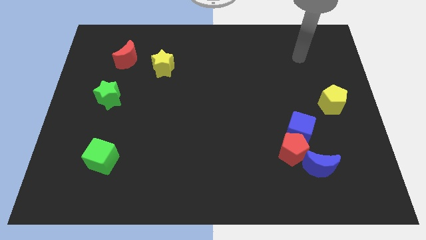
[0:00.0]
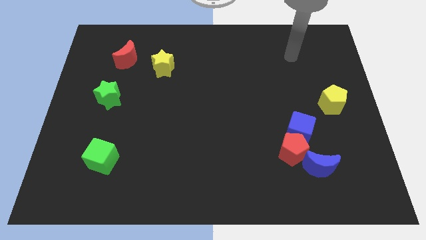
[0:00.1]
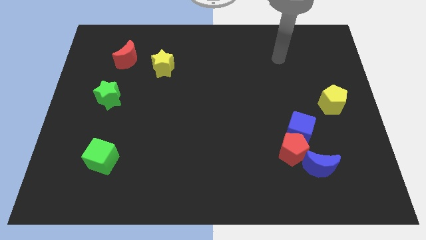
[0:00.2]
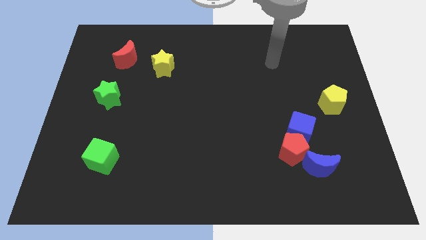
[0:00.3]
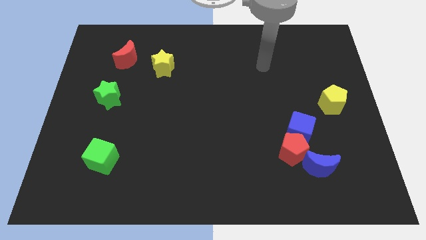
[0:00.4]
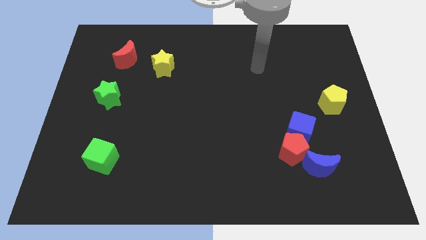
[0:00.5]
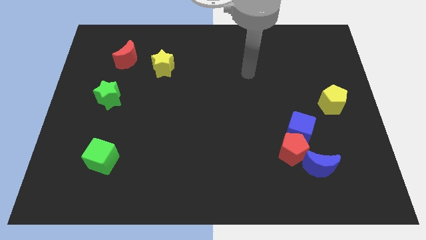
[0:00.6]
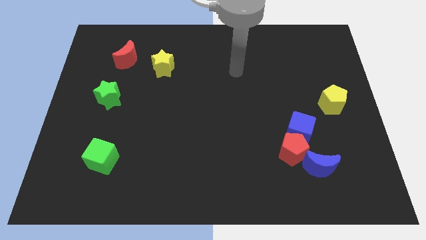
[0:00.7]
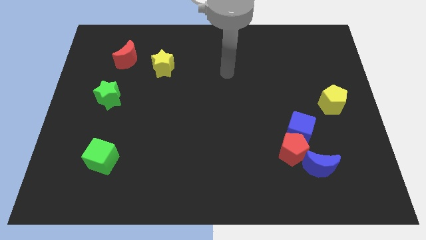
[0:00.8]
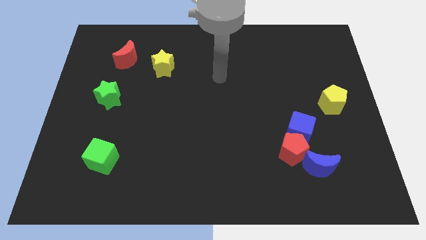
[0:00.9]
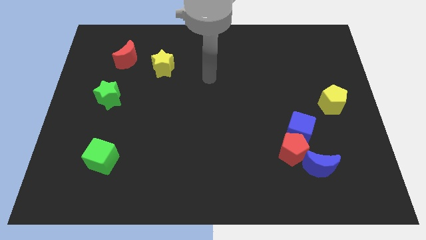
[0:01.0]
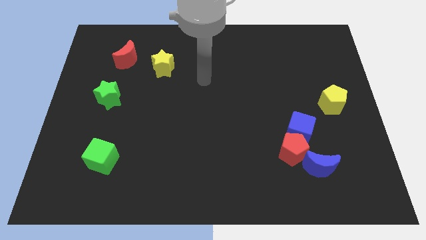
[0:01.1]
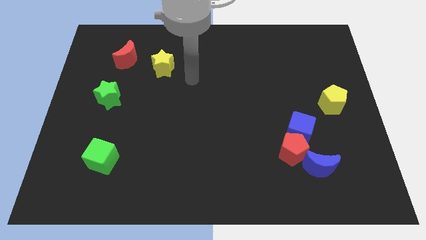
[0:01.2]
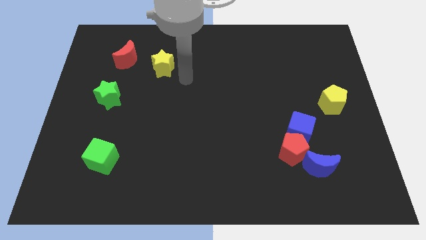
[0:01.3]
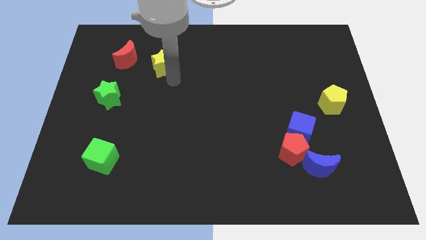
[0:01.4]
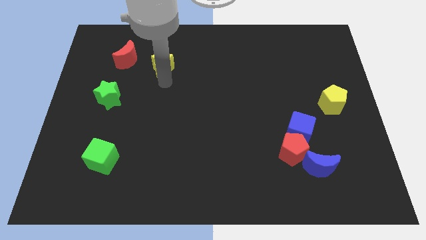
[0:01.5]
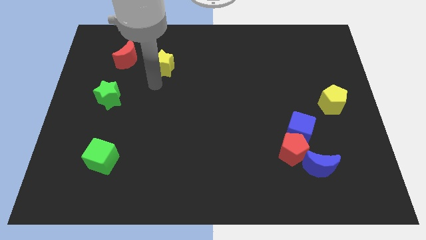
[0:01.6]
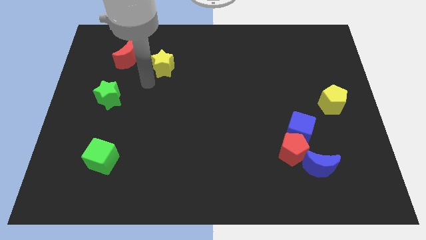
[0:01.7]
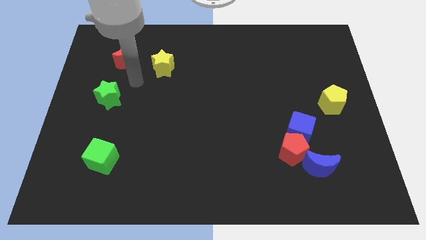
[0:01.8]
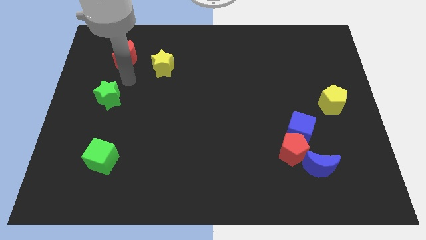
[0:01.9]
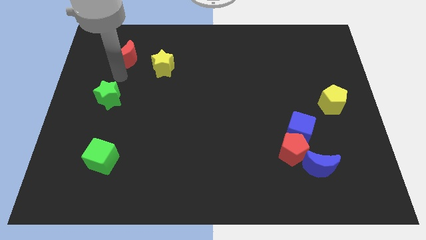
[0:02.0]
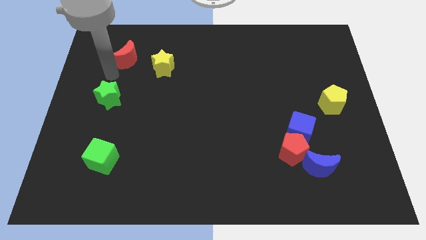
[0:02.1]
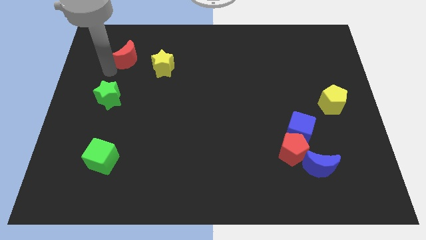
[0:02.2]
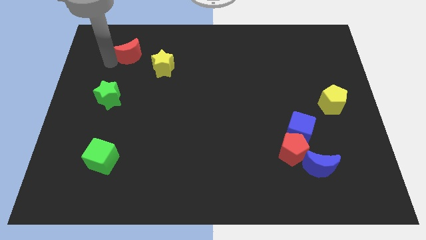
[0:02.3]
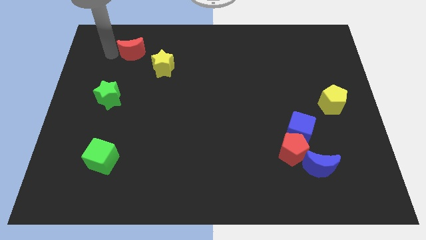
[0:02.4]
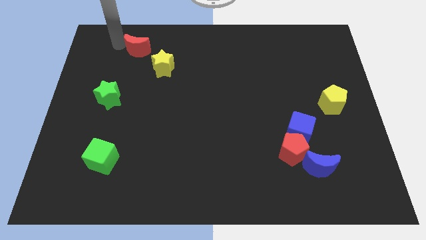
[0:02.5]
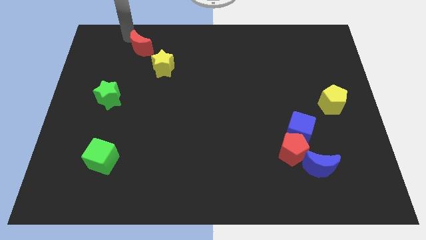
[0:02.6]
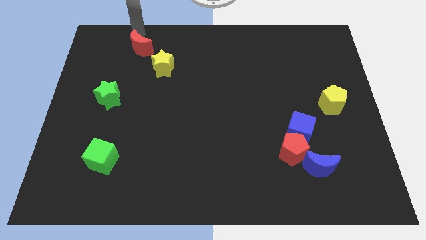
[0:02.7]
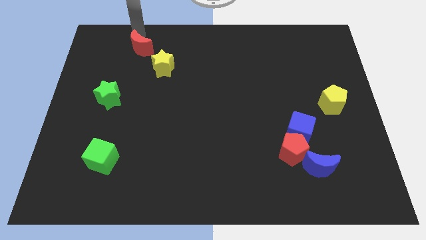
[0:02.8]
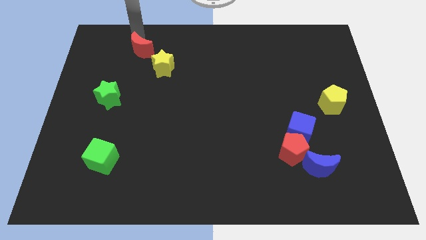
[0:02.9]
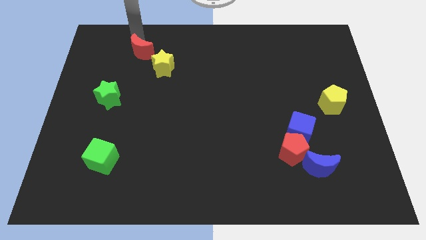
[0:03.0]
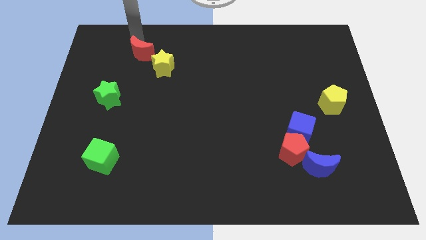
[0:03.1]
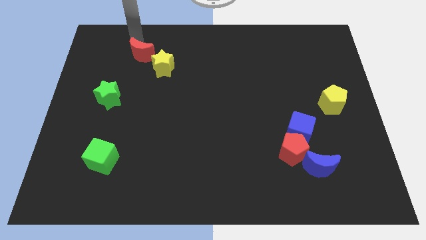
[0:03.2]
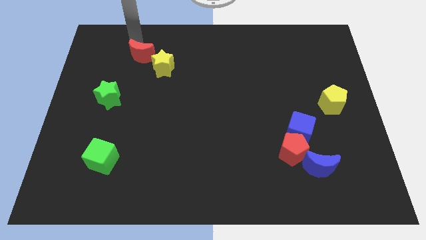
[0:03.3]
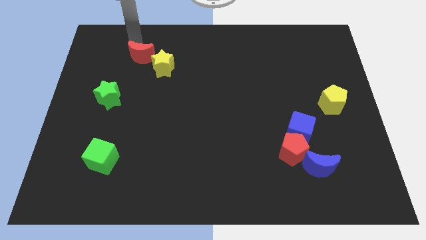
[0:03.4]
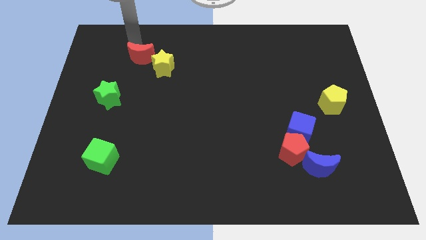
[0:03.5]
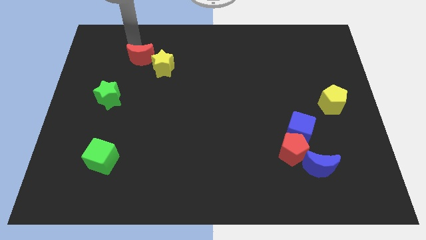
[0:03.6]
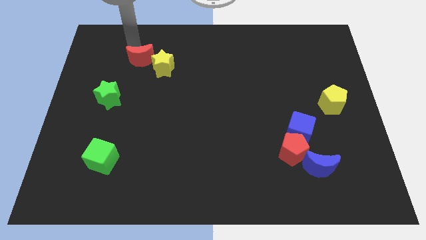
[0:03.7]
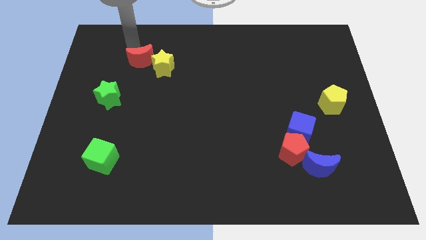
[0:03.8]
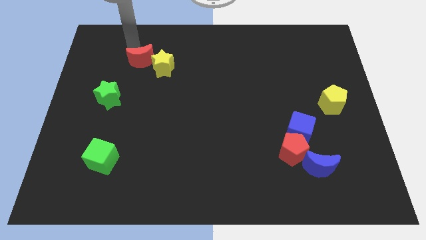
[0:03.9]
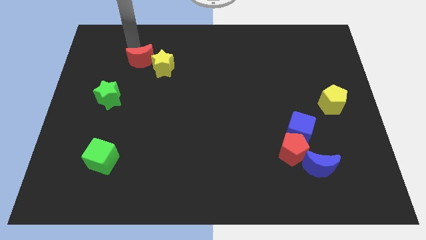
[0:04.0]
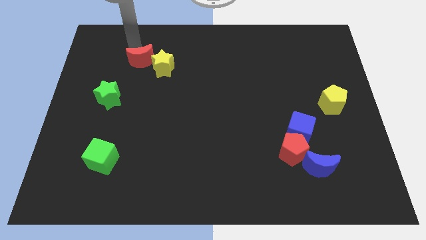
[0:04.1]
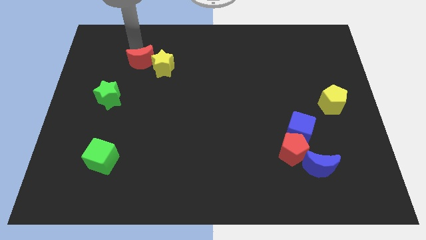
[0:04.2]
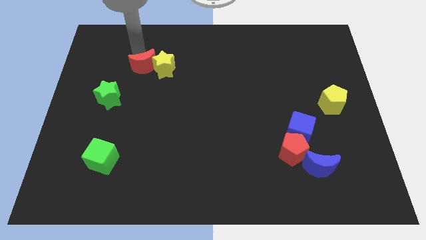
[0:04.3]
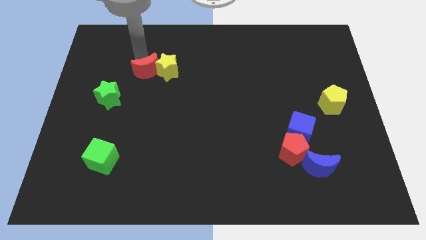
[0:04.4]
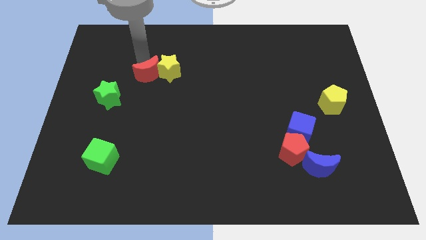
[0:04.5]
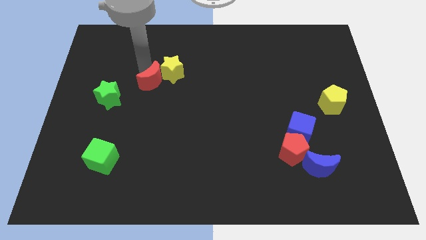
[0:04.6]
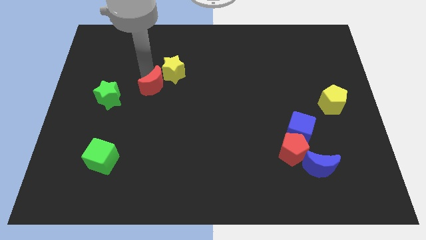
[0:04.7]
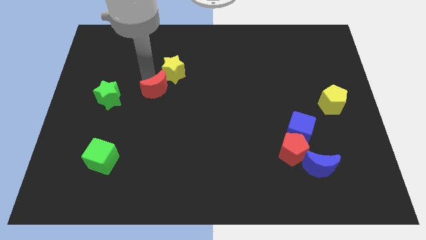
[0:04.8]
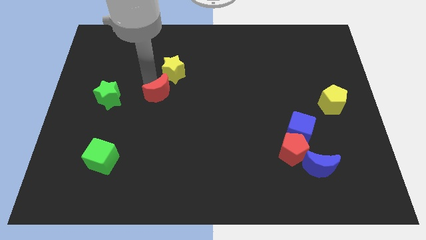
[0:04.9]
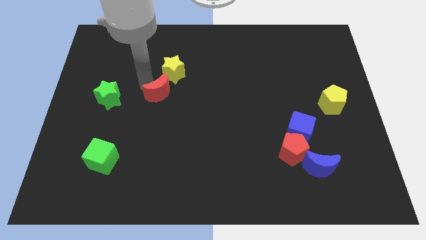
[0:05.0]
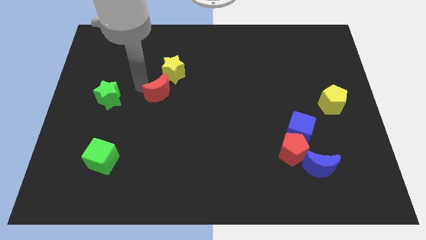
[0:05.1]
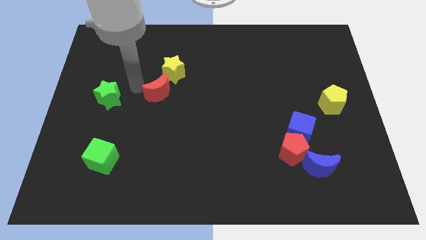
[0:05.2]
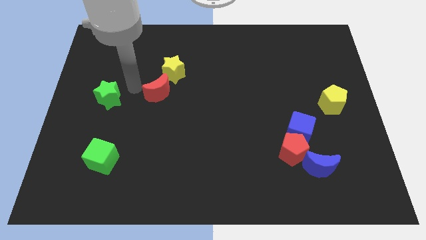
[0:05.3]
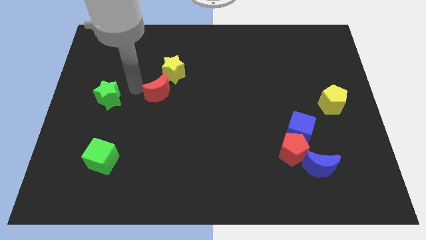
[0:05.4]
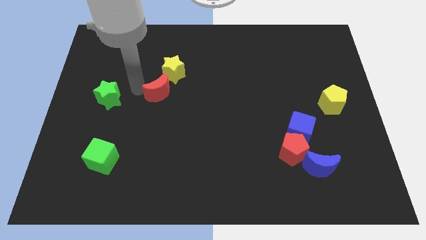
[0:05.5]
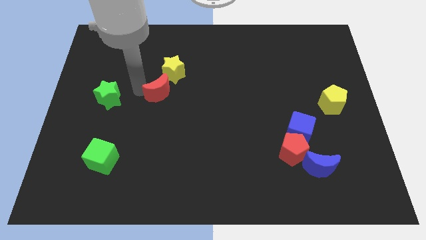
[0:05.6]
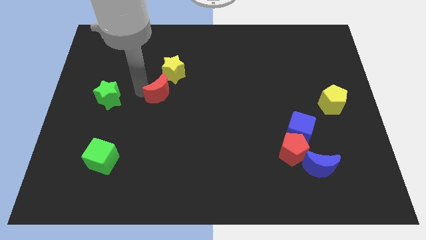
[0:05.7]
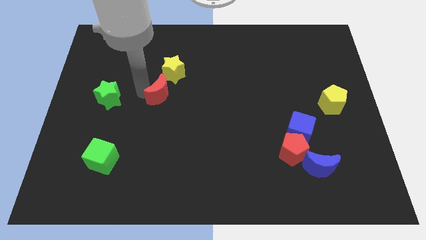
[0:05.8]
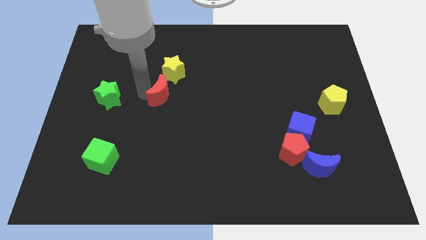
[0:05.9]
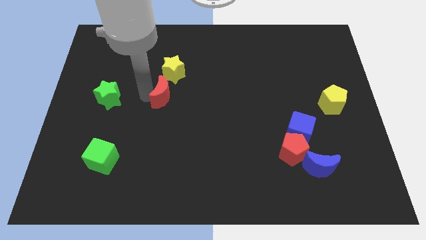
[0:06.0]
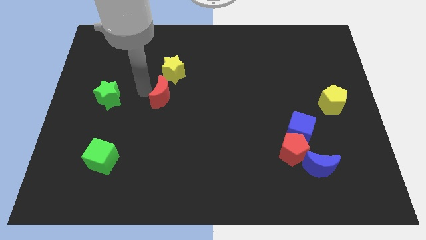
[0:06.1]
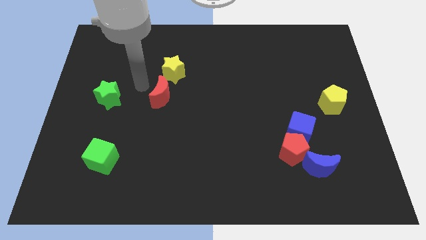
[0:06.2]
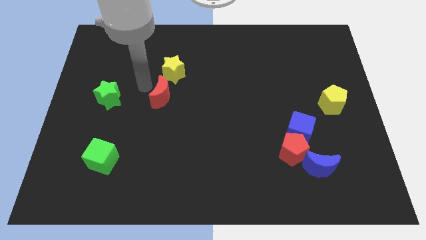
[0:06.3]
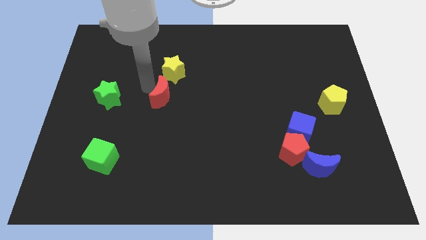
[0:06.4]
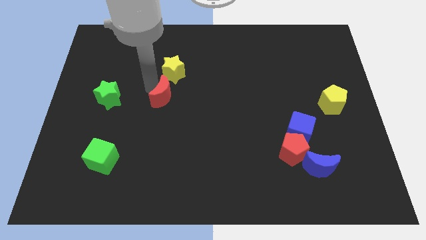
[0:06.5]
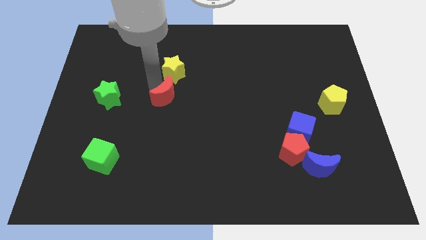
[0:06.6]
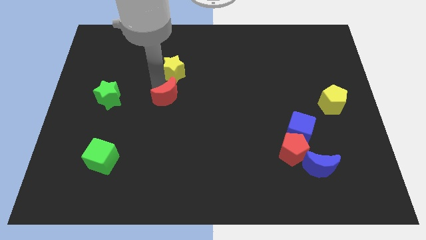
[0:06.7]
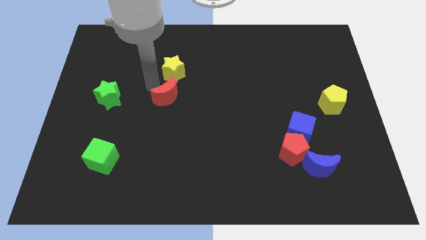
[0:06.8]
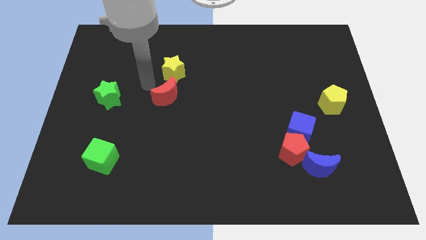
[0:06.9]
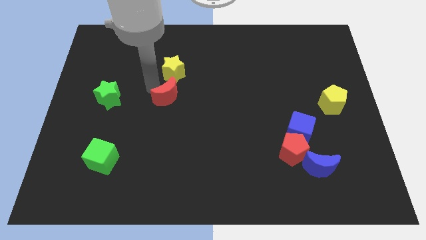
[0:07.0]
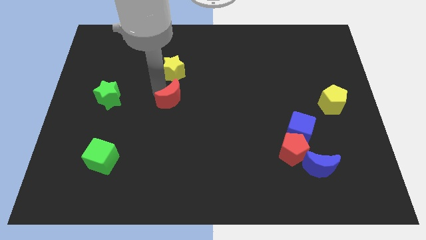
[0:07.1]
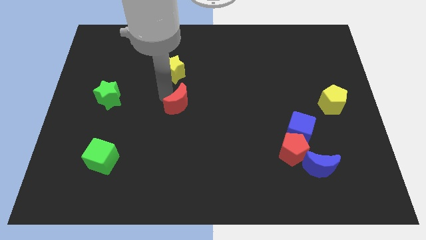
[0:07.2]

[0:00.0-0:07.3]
slide the red moon down and then right

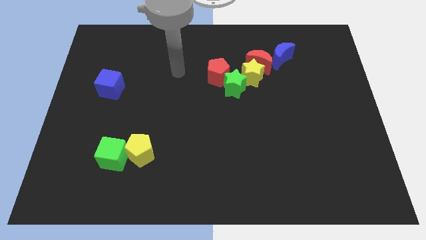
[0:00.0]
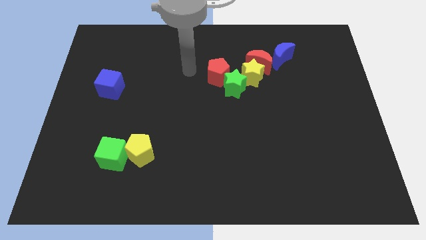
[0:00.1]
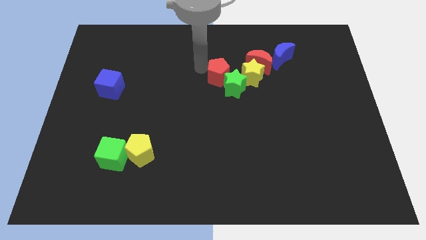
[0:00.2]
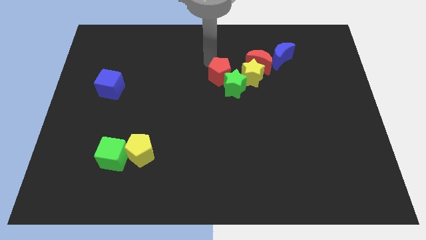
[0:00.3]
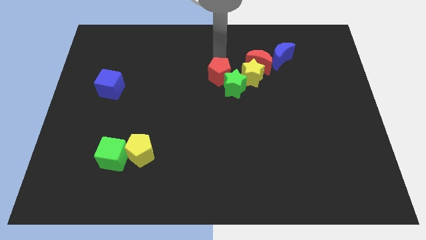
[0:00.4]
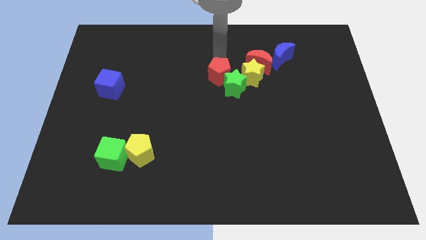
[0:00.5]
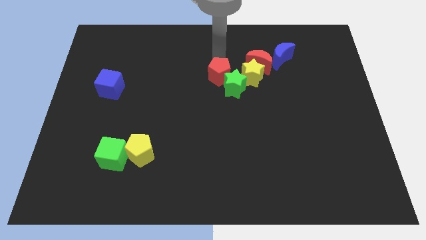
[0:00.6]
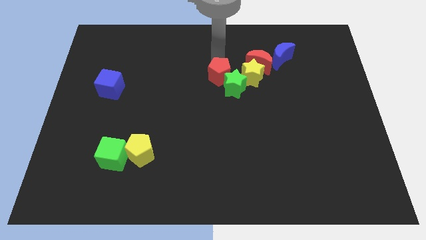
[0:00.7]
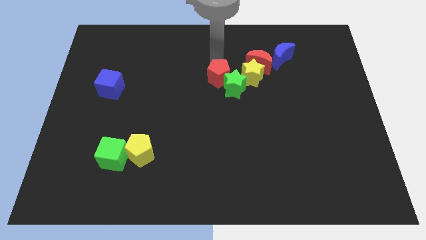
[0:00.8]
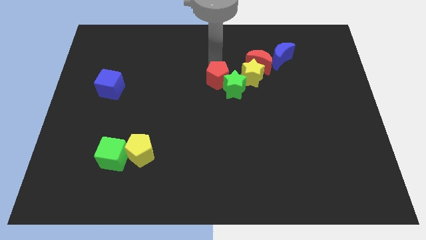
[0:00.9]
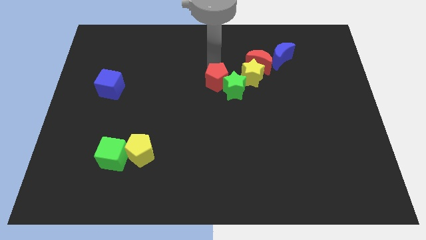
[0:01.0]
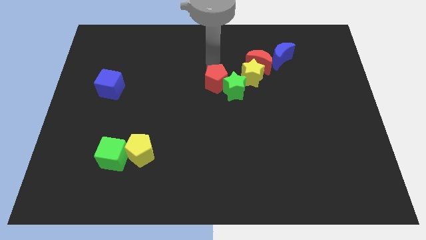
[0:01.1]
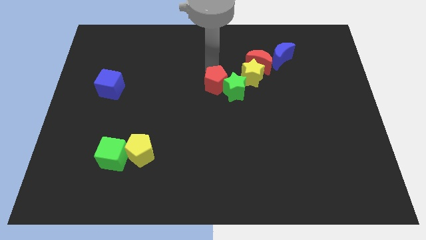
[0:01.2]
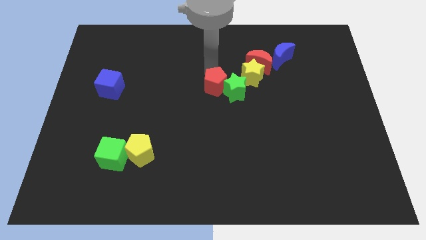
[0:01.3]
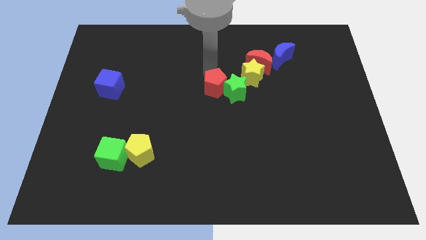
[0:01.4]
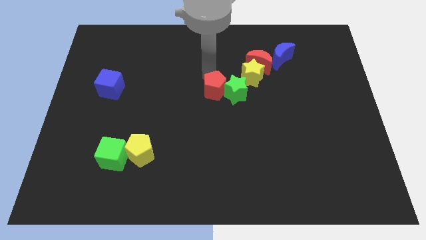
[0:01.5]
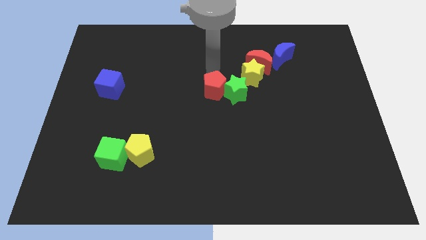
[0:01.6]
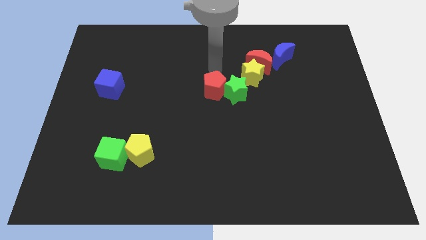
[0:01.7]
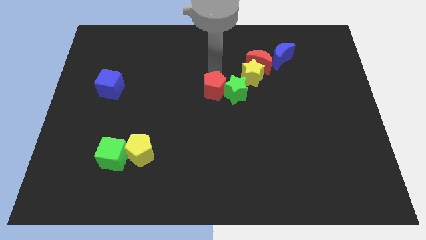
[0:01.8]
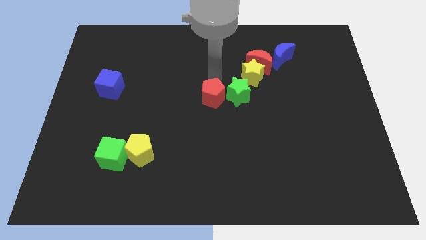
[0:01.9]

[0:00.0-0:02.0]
push the red pentagon down somewhat
